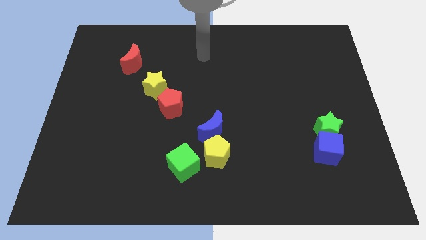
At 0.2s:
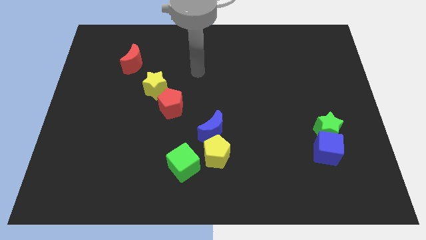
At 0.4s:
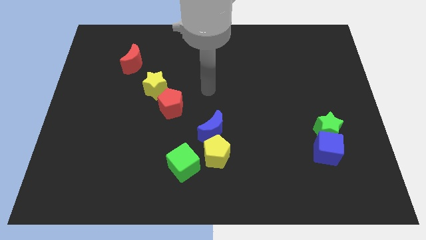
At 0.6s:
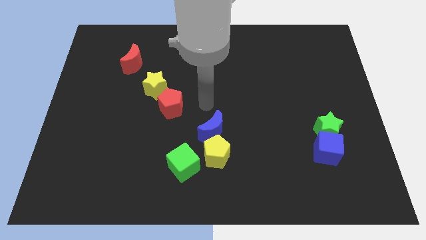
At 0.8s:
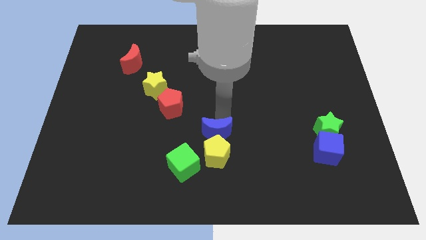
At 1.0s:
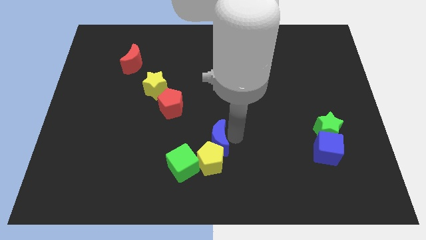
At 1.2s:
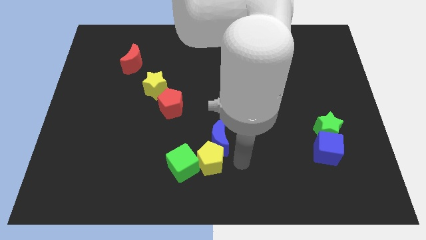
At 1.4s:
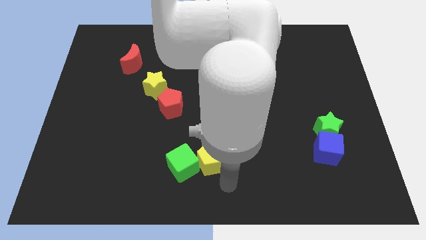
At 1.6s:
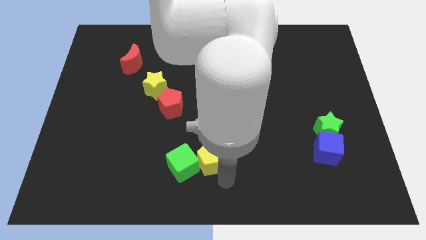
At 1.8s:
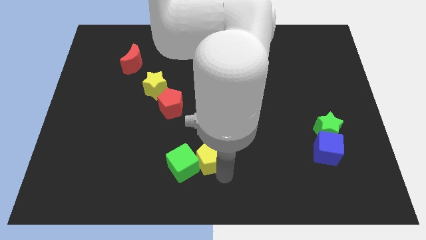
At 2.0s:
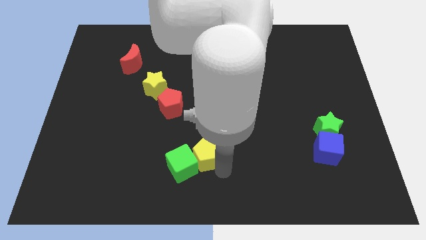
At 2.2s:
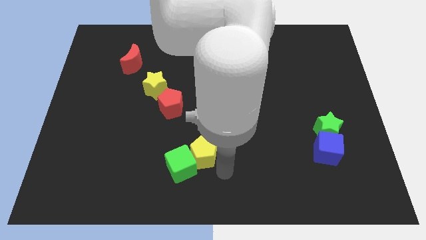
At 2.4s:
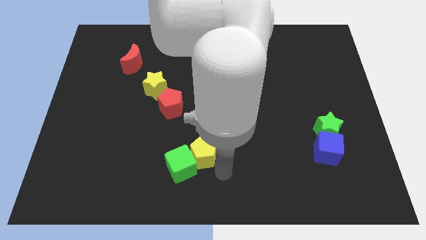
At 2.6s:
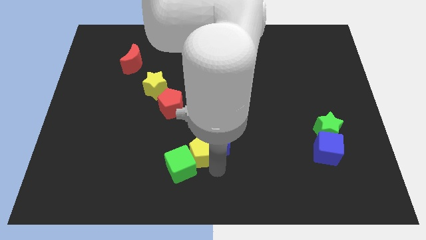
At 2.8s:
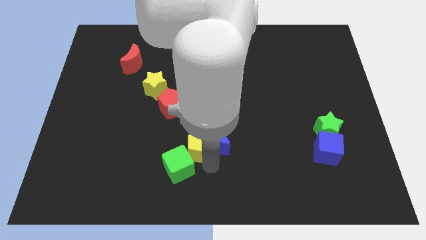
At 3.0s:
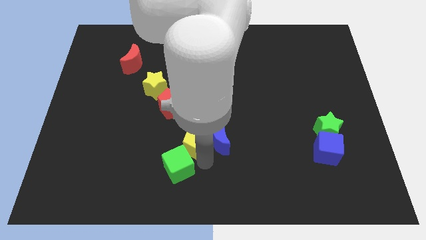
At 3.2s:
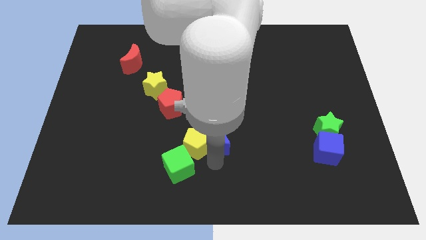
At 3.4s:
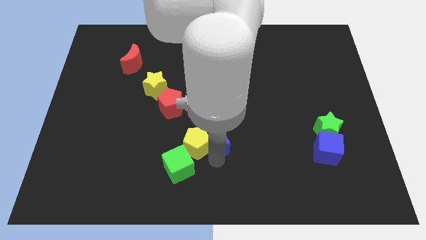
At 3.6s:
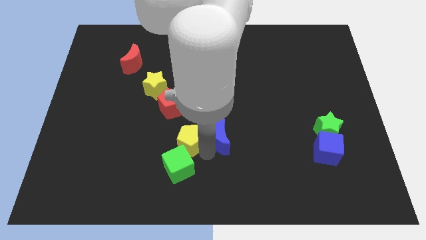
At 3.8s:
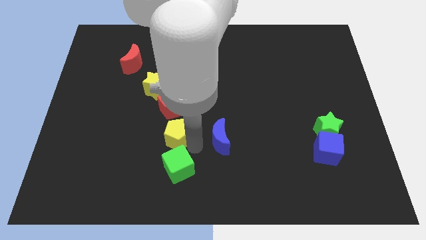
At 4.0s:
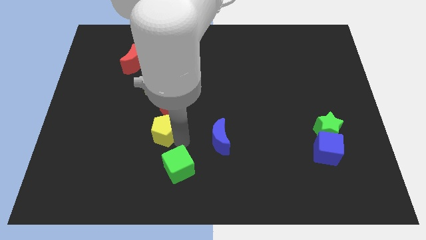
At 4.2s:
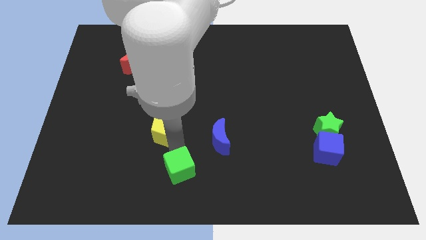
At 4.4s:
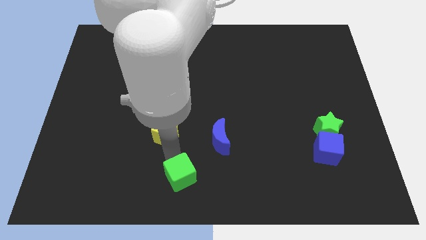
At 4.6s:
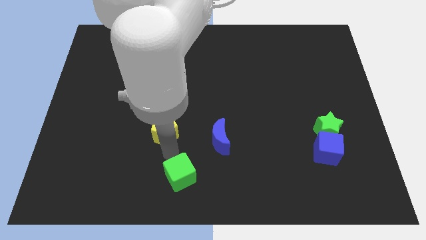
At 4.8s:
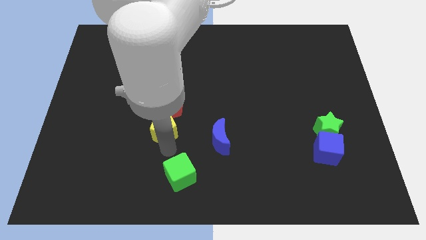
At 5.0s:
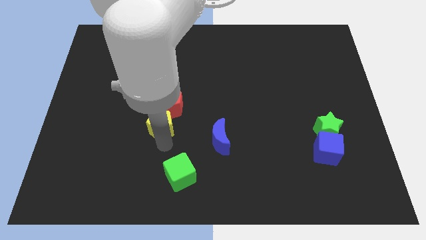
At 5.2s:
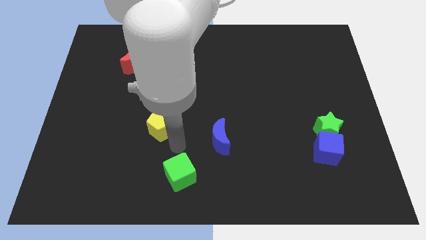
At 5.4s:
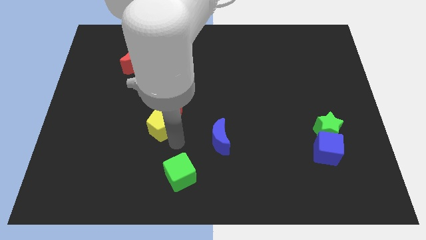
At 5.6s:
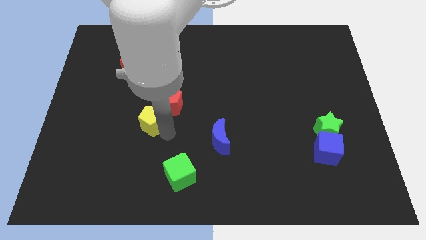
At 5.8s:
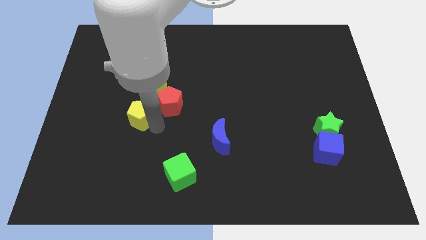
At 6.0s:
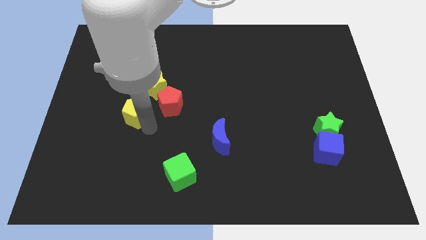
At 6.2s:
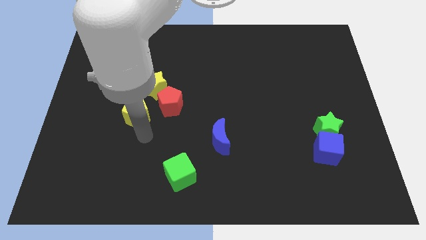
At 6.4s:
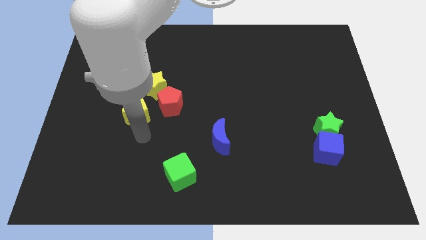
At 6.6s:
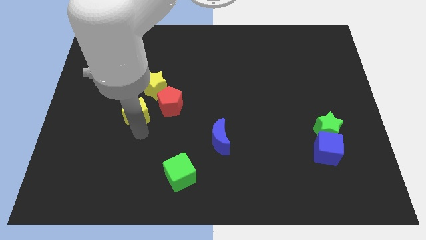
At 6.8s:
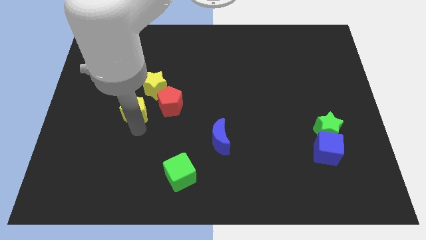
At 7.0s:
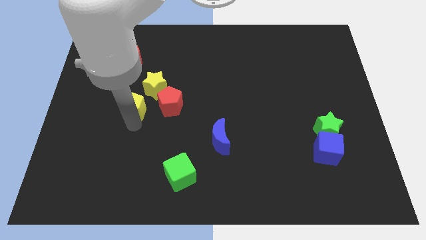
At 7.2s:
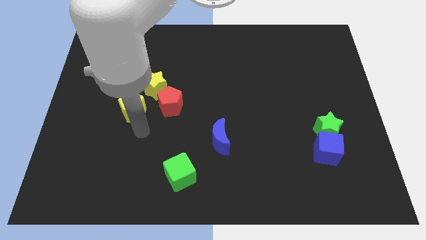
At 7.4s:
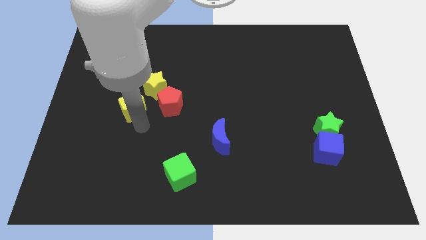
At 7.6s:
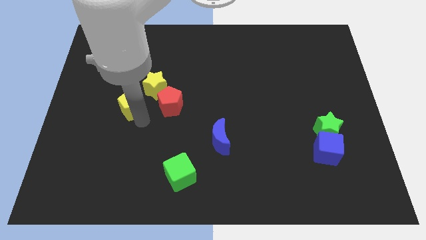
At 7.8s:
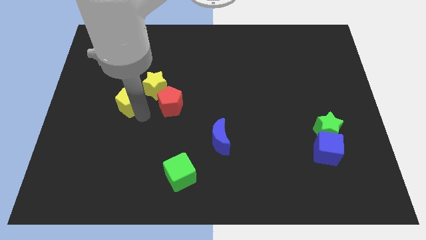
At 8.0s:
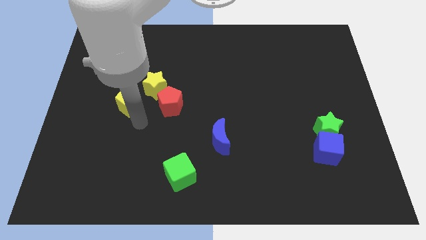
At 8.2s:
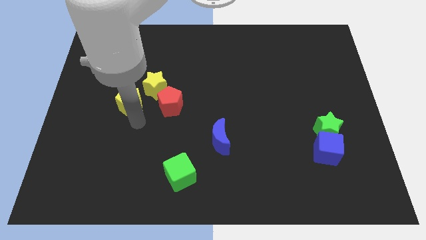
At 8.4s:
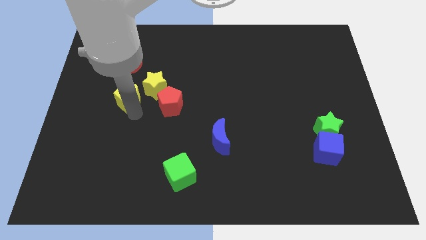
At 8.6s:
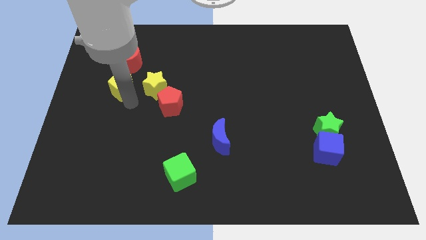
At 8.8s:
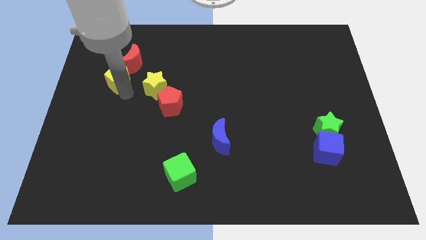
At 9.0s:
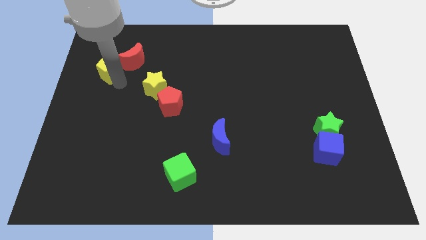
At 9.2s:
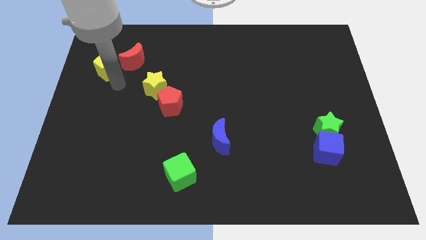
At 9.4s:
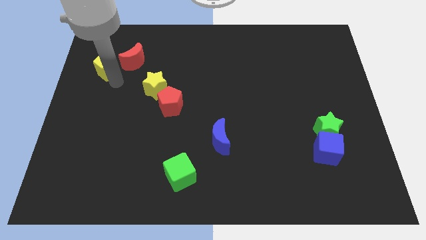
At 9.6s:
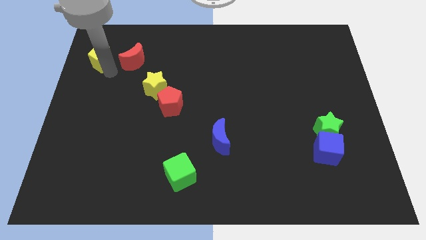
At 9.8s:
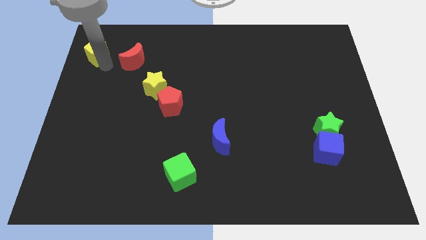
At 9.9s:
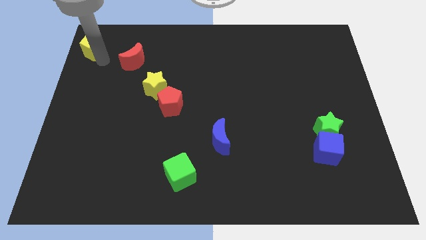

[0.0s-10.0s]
put the yellow pentagon to the top left

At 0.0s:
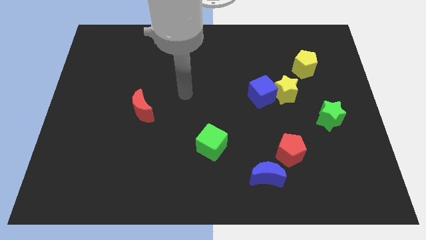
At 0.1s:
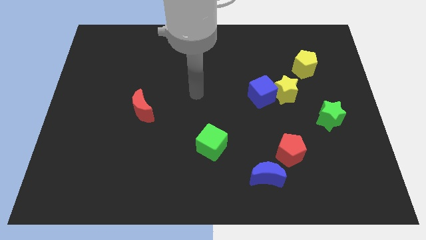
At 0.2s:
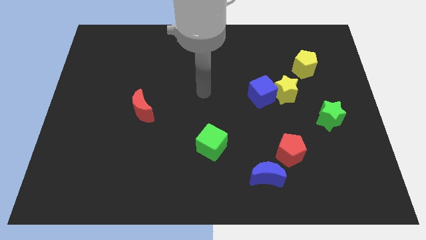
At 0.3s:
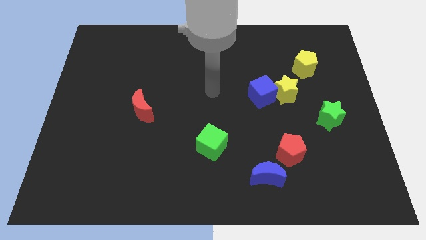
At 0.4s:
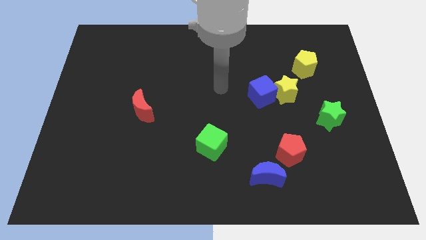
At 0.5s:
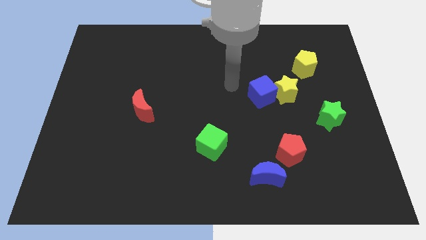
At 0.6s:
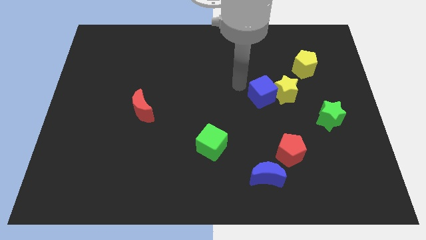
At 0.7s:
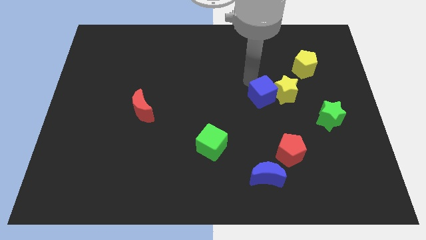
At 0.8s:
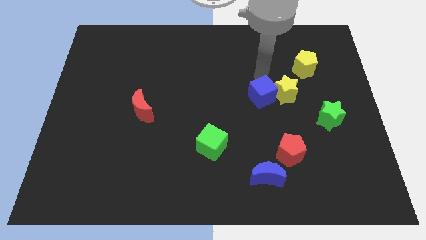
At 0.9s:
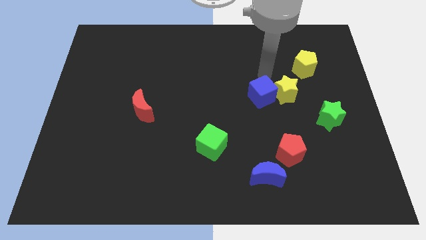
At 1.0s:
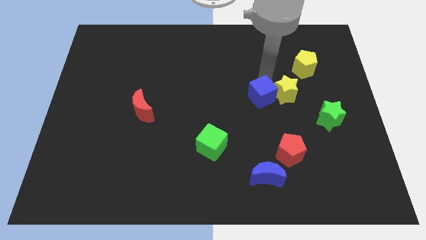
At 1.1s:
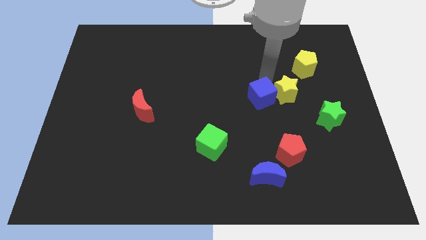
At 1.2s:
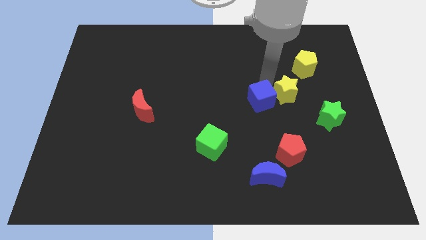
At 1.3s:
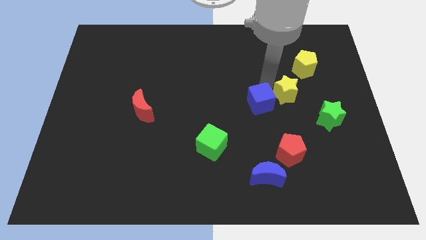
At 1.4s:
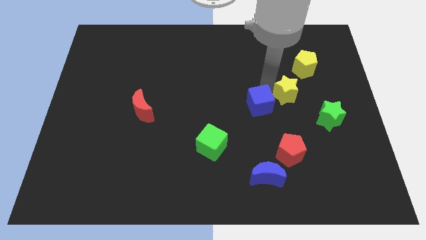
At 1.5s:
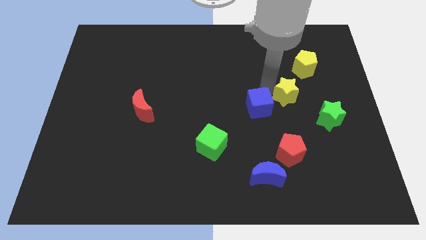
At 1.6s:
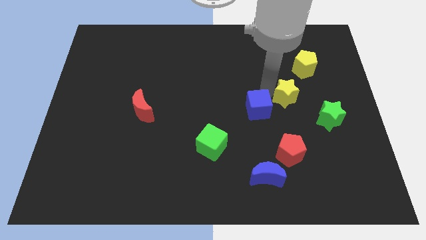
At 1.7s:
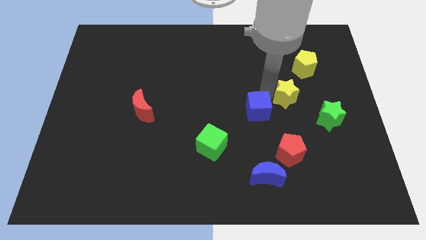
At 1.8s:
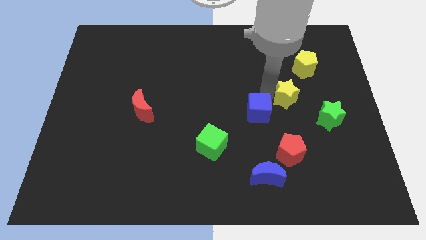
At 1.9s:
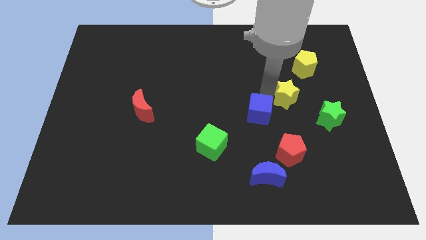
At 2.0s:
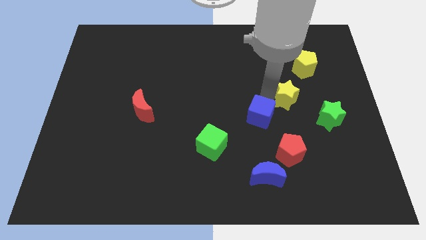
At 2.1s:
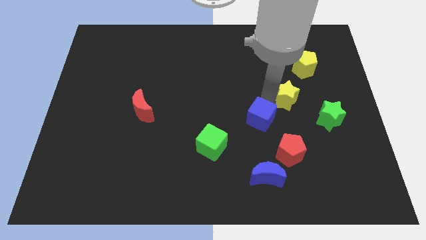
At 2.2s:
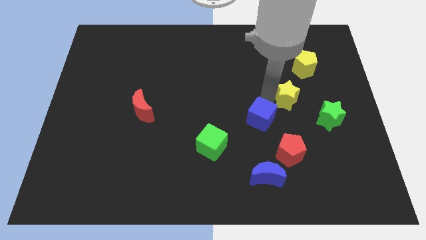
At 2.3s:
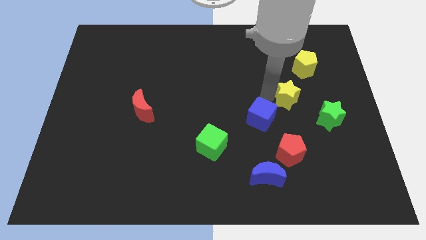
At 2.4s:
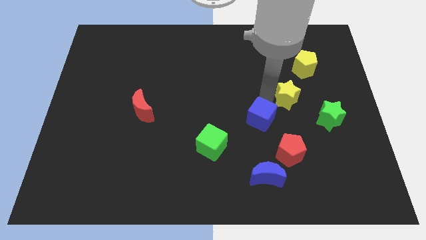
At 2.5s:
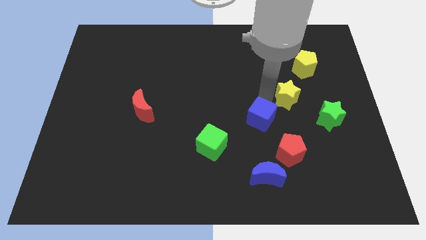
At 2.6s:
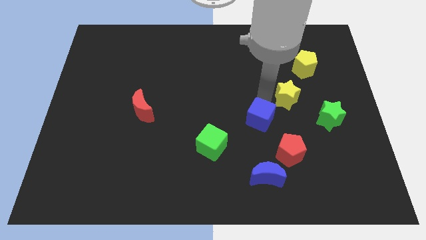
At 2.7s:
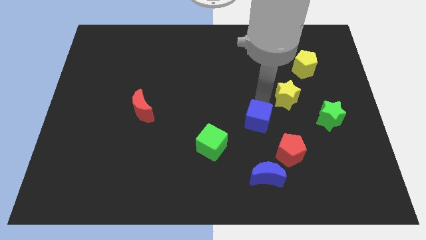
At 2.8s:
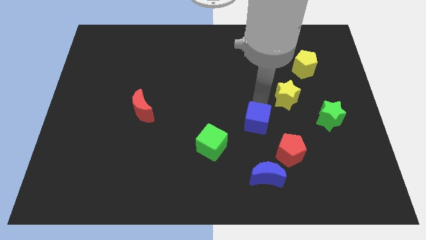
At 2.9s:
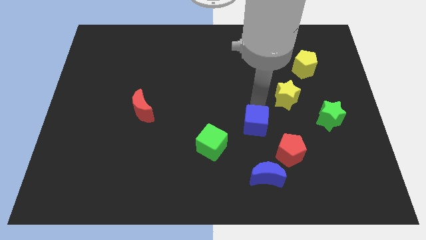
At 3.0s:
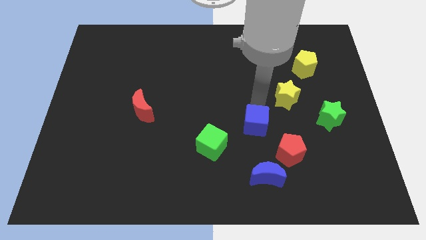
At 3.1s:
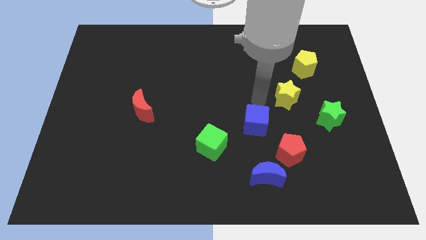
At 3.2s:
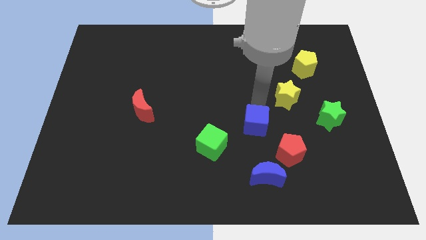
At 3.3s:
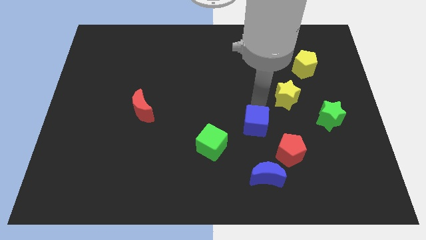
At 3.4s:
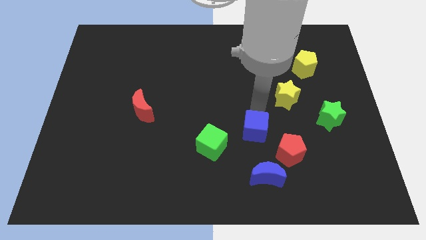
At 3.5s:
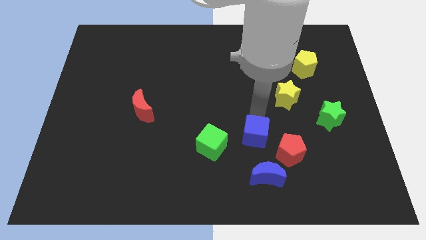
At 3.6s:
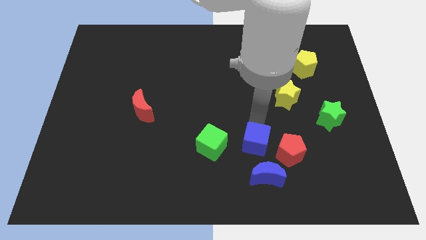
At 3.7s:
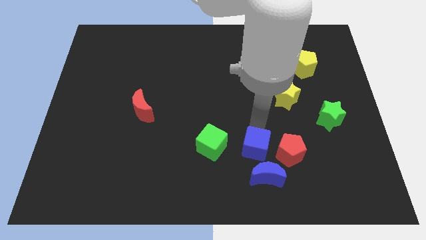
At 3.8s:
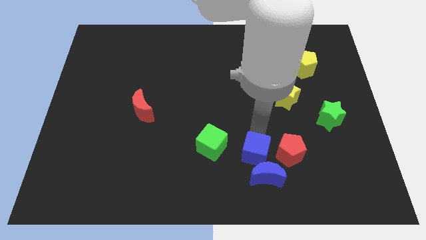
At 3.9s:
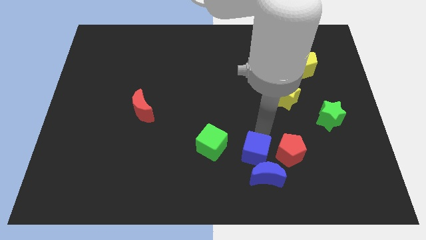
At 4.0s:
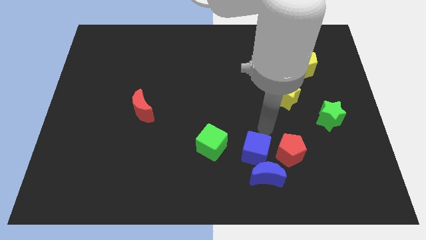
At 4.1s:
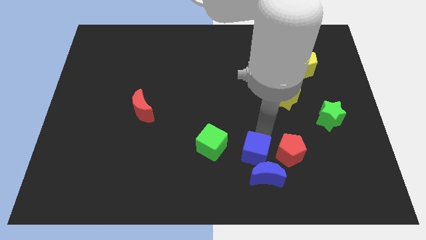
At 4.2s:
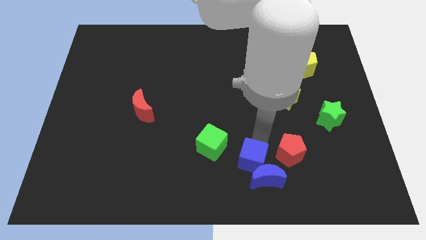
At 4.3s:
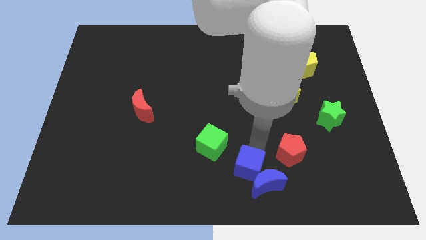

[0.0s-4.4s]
move the blue cube to the bottom side
